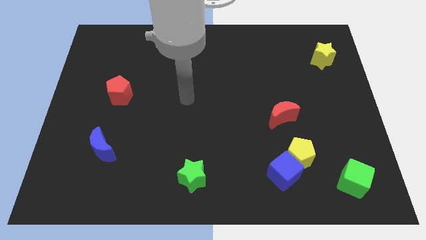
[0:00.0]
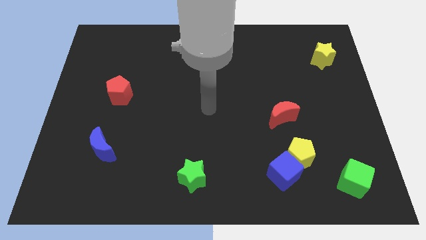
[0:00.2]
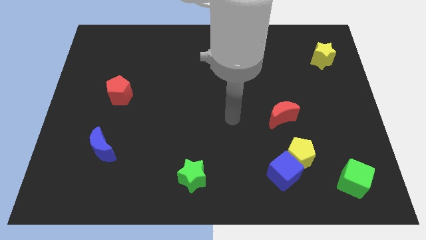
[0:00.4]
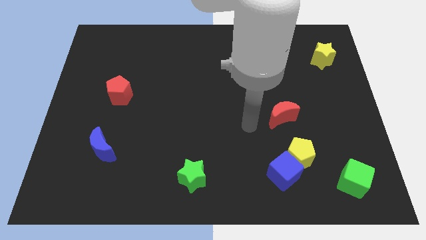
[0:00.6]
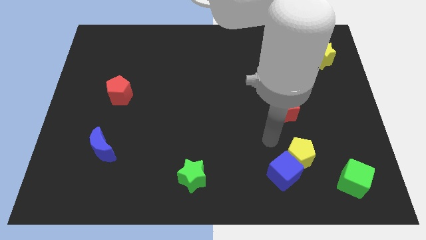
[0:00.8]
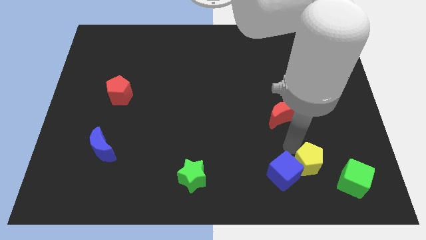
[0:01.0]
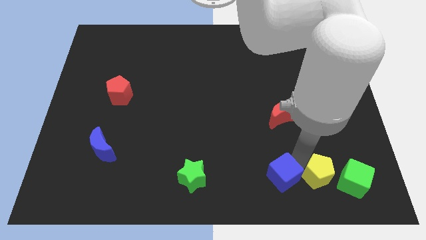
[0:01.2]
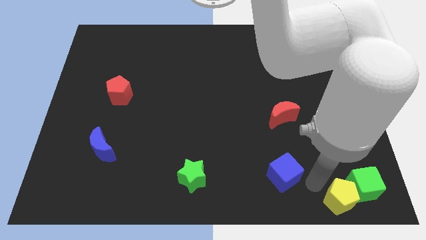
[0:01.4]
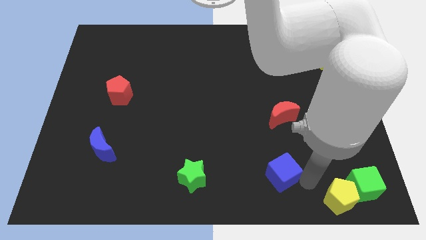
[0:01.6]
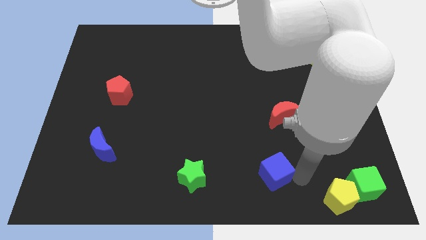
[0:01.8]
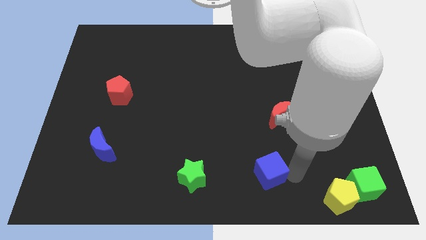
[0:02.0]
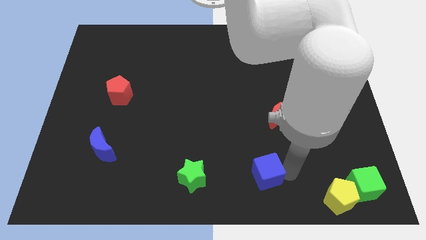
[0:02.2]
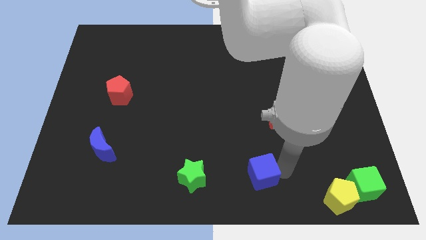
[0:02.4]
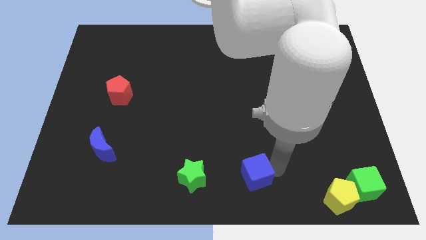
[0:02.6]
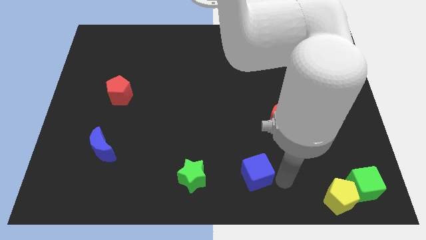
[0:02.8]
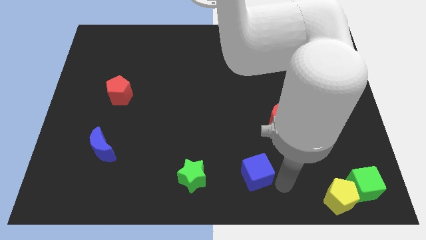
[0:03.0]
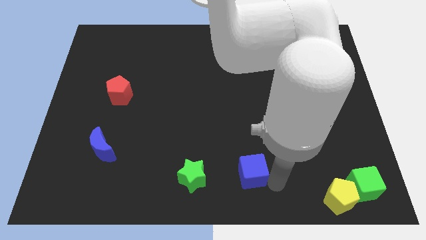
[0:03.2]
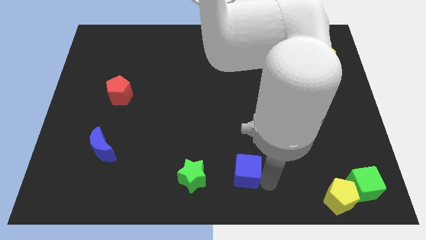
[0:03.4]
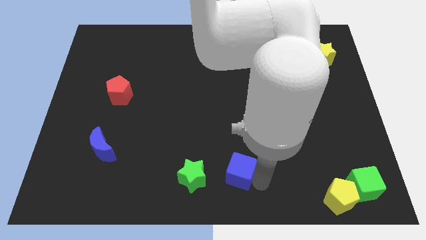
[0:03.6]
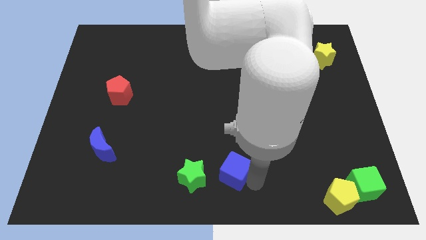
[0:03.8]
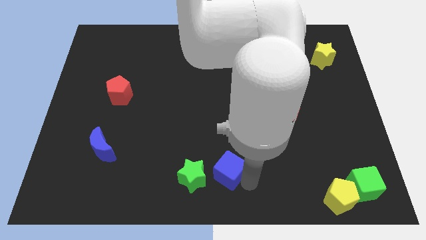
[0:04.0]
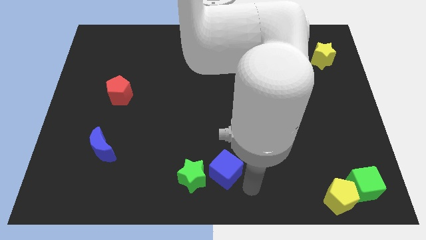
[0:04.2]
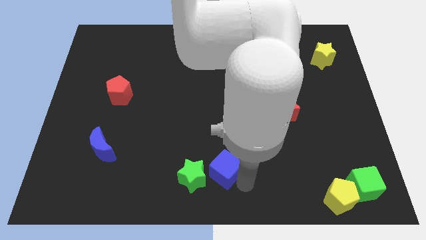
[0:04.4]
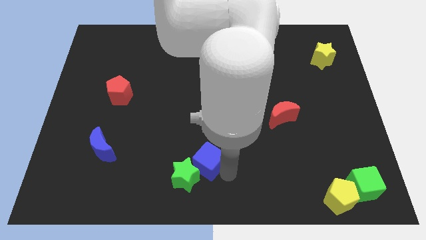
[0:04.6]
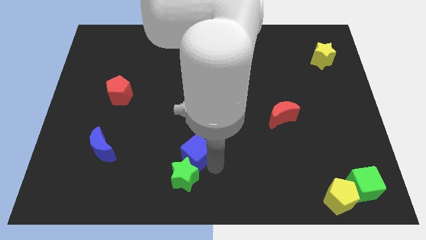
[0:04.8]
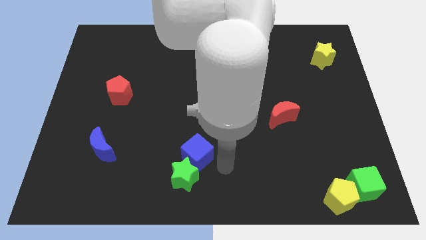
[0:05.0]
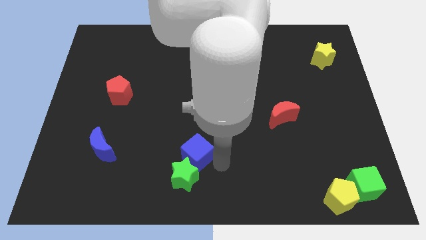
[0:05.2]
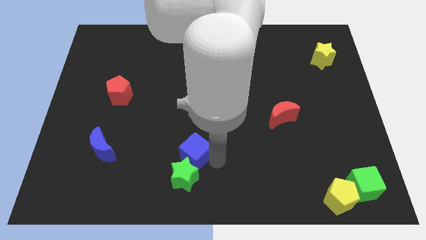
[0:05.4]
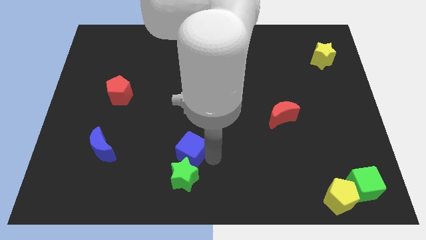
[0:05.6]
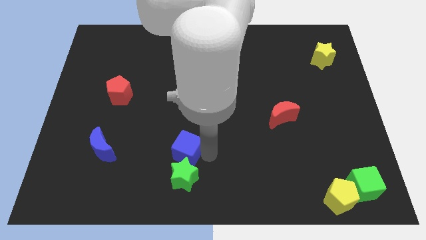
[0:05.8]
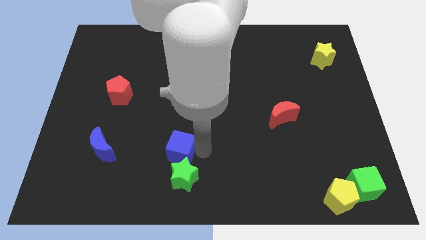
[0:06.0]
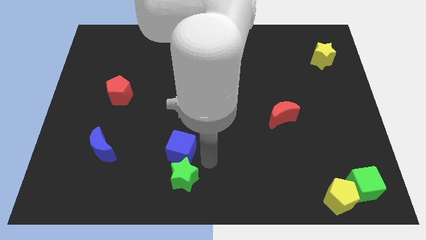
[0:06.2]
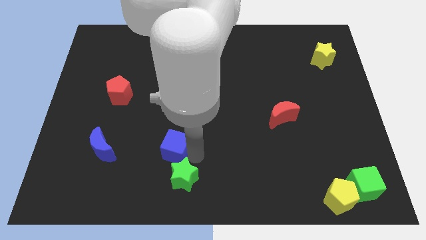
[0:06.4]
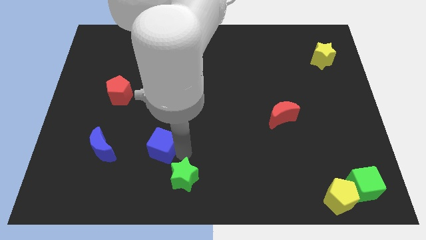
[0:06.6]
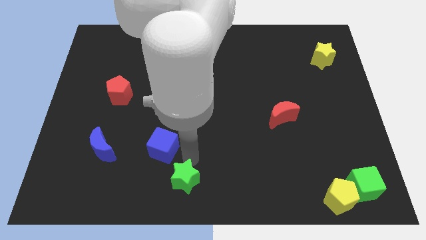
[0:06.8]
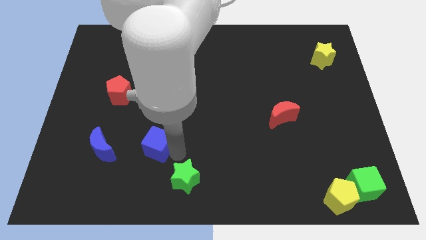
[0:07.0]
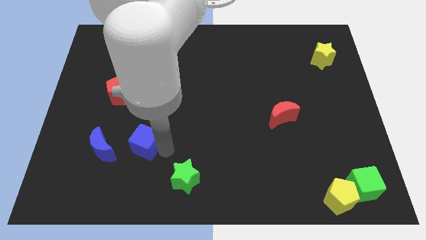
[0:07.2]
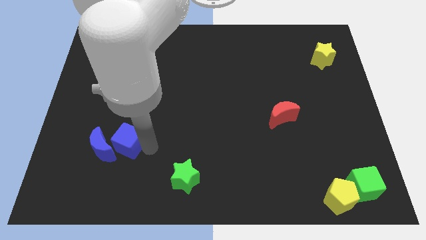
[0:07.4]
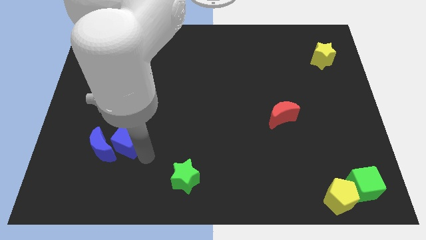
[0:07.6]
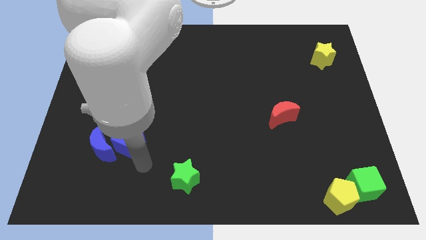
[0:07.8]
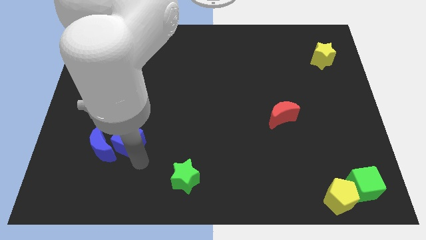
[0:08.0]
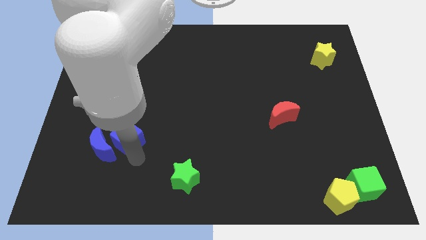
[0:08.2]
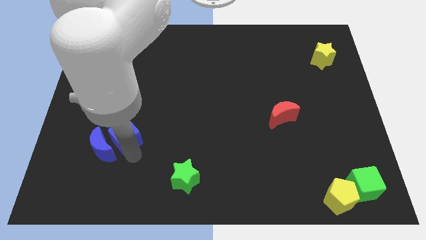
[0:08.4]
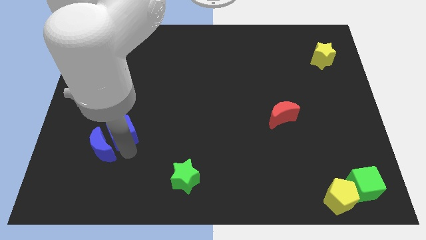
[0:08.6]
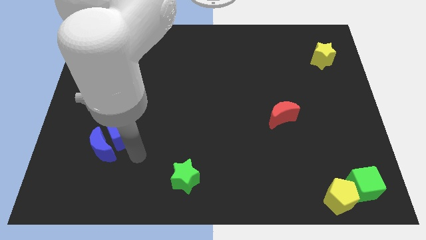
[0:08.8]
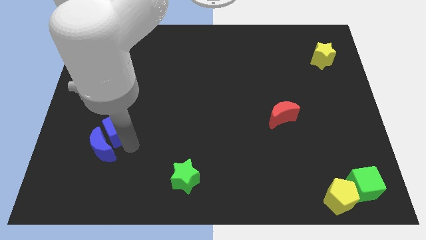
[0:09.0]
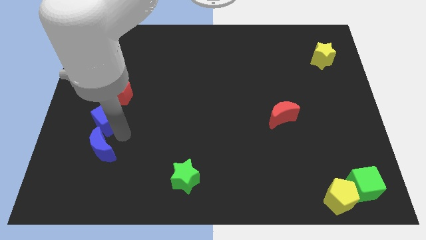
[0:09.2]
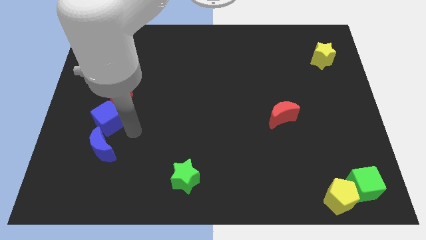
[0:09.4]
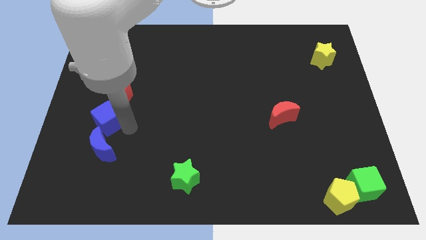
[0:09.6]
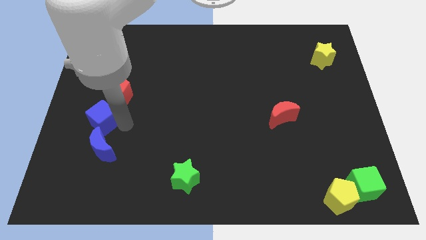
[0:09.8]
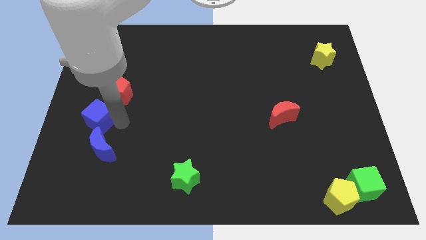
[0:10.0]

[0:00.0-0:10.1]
move the blue cube to the left side of the board

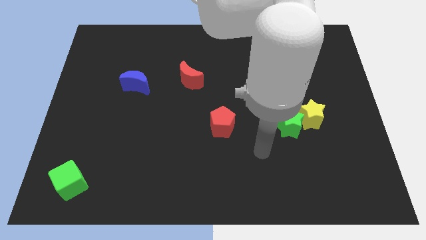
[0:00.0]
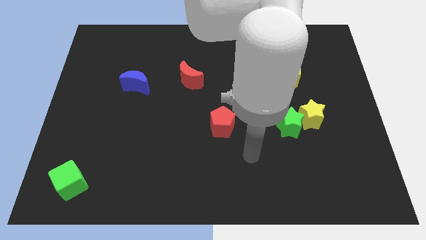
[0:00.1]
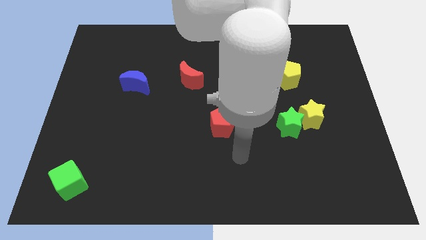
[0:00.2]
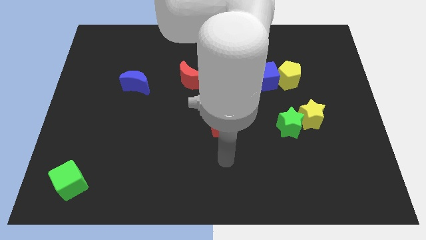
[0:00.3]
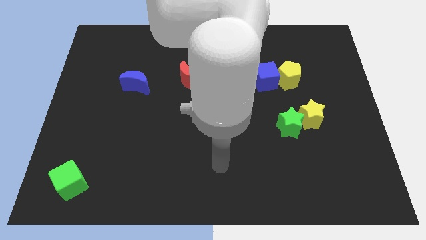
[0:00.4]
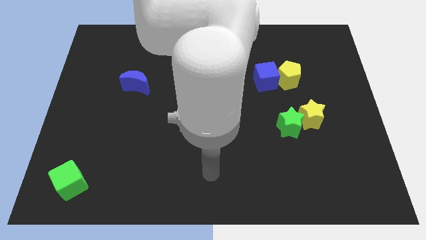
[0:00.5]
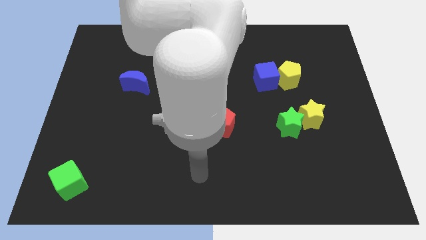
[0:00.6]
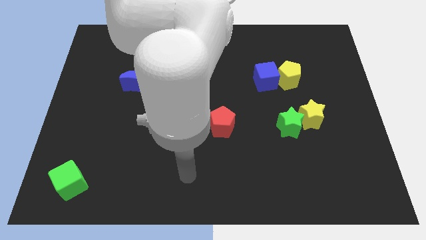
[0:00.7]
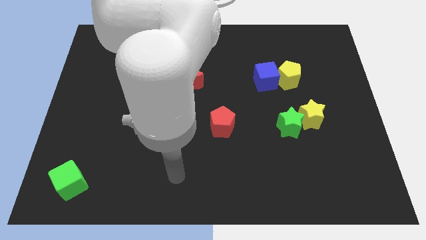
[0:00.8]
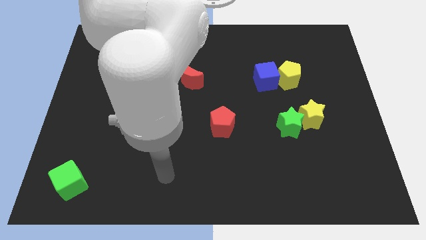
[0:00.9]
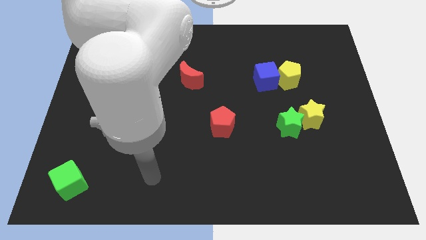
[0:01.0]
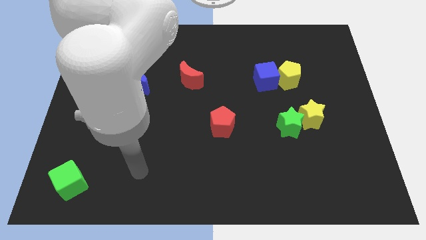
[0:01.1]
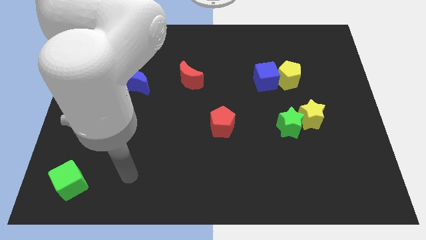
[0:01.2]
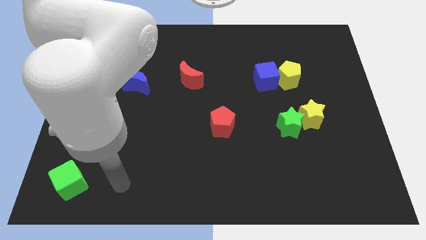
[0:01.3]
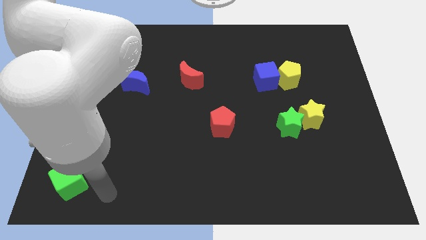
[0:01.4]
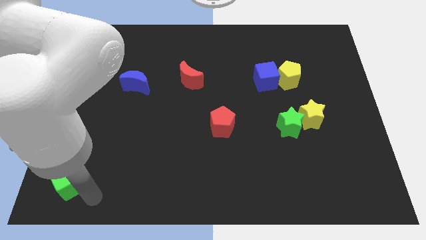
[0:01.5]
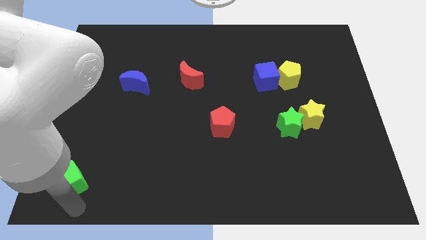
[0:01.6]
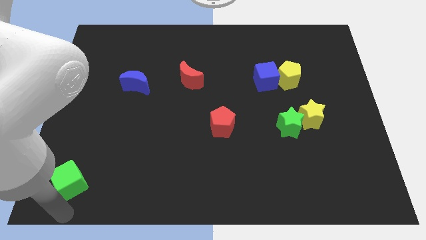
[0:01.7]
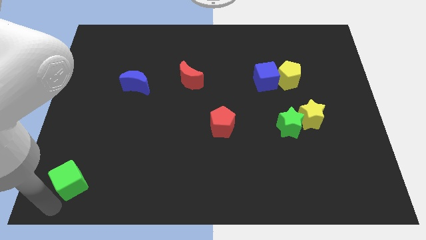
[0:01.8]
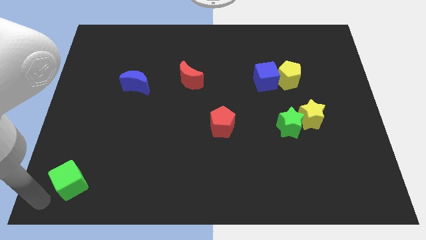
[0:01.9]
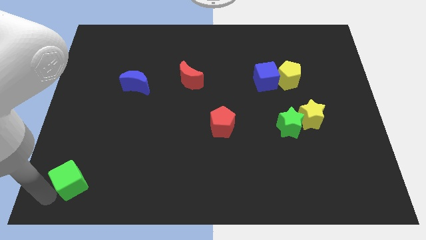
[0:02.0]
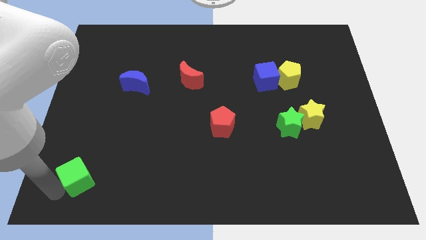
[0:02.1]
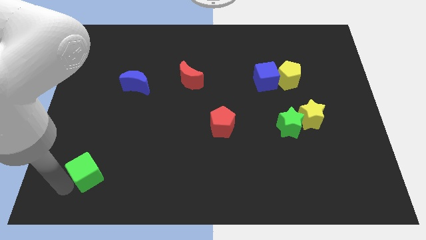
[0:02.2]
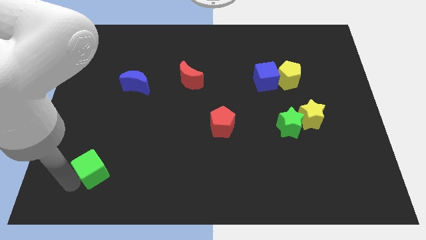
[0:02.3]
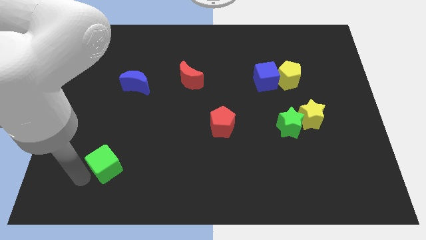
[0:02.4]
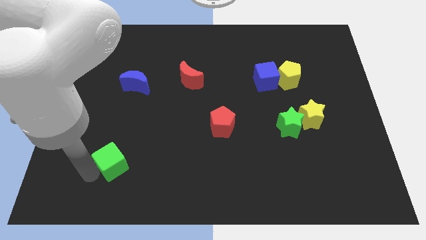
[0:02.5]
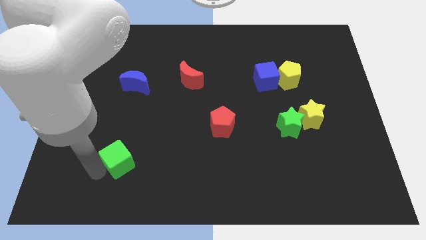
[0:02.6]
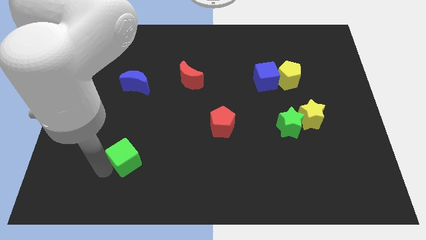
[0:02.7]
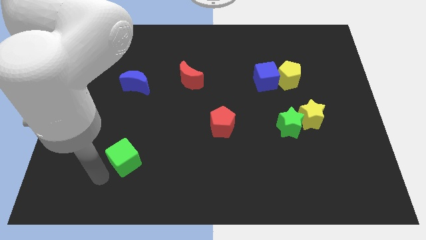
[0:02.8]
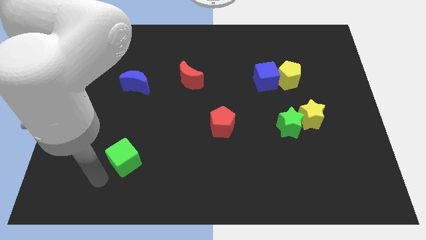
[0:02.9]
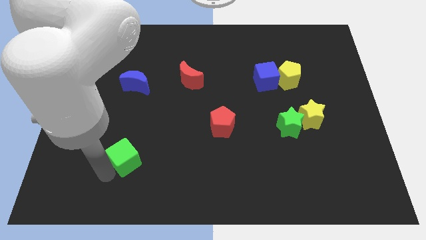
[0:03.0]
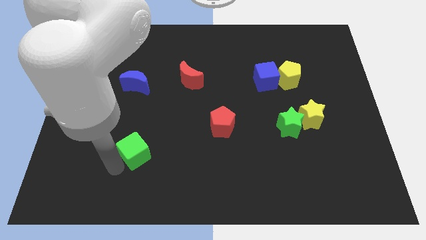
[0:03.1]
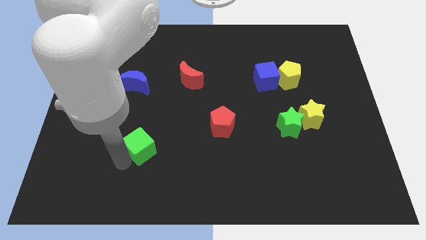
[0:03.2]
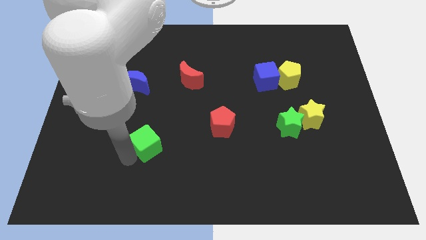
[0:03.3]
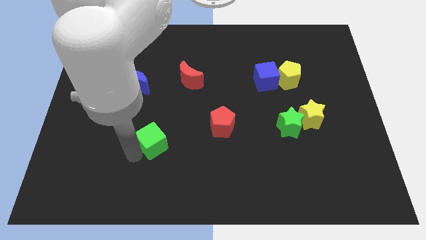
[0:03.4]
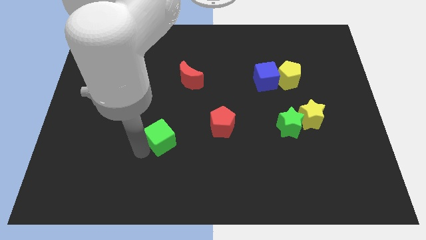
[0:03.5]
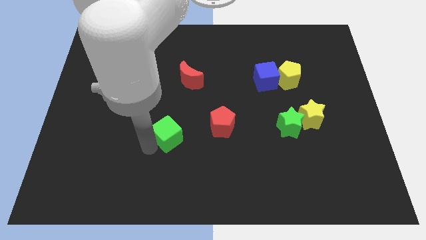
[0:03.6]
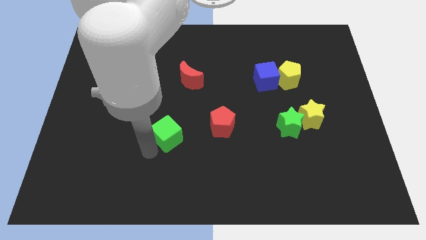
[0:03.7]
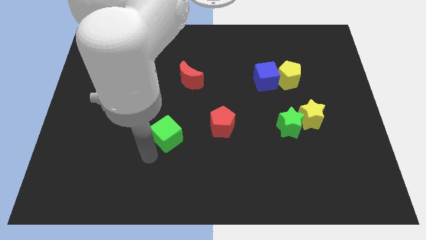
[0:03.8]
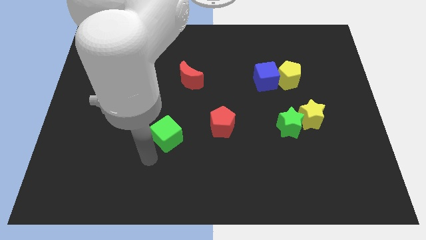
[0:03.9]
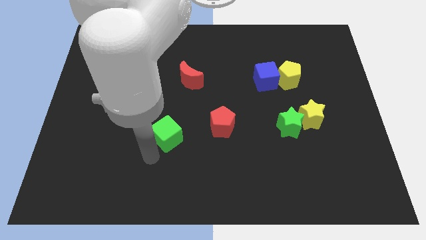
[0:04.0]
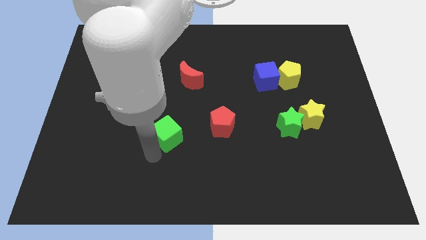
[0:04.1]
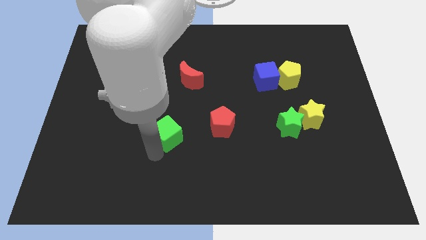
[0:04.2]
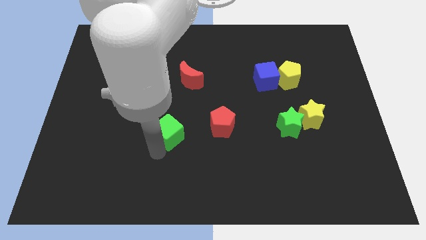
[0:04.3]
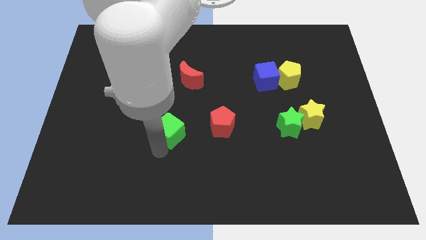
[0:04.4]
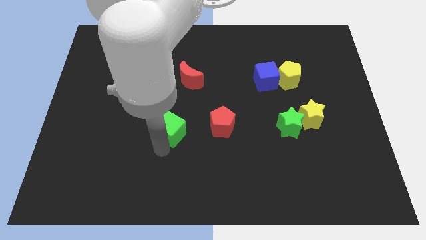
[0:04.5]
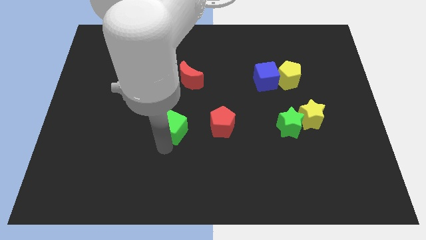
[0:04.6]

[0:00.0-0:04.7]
push the green cube to the center of the board
